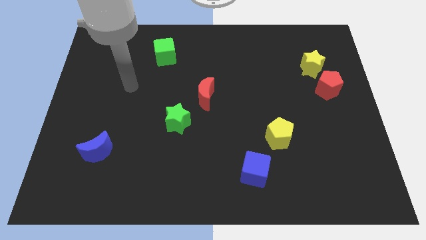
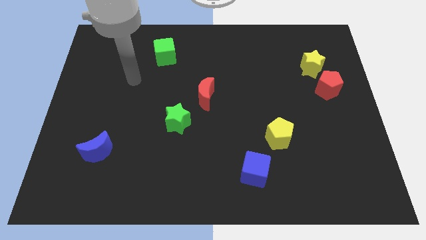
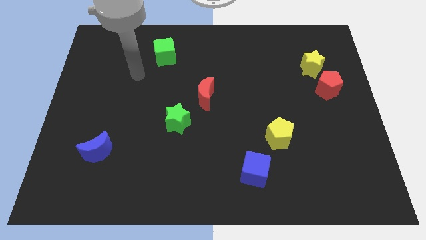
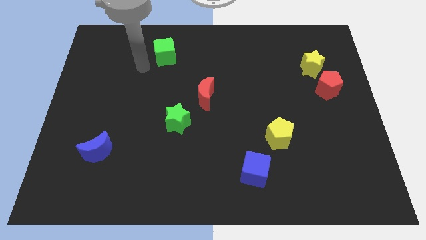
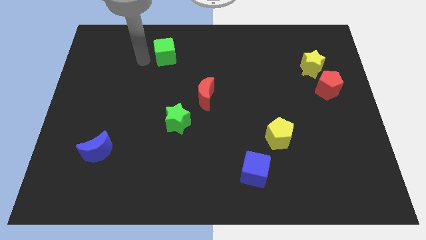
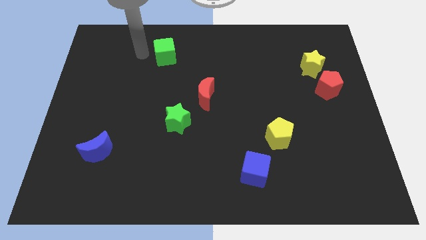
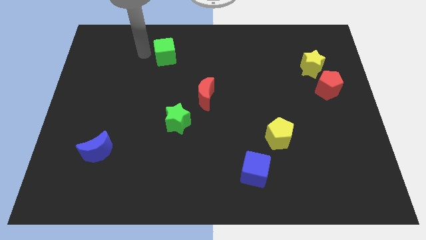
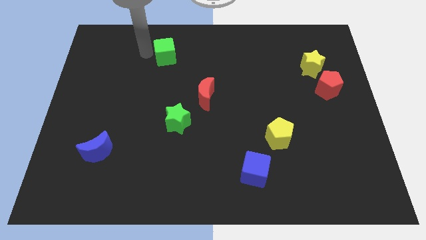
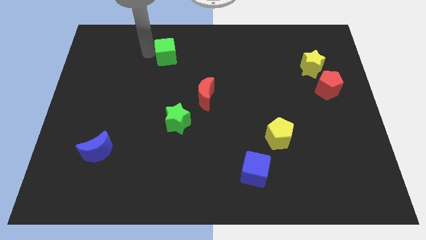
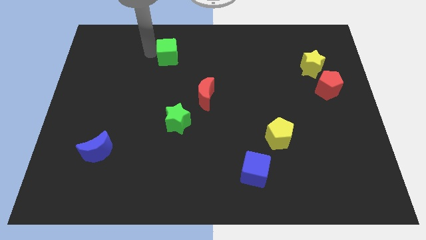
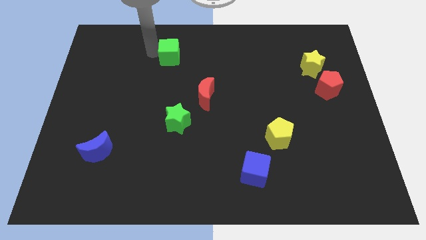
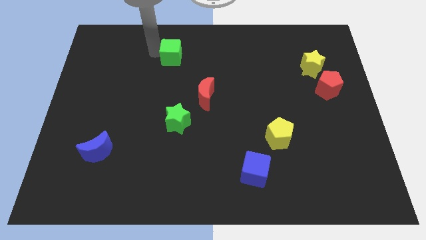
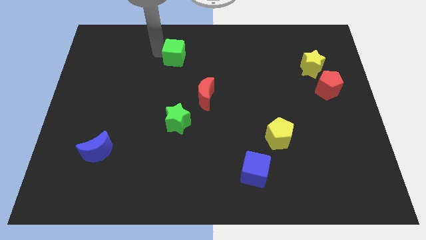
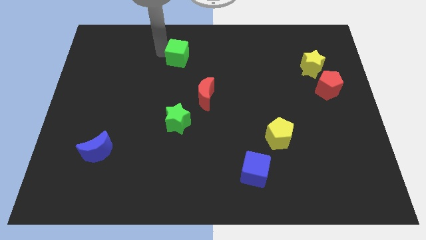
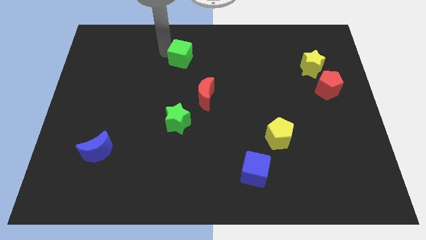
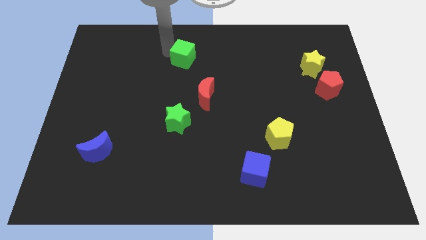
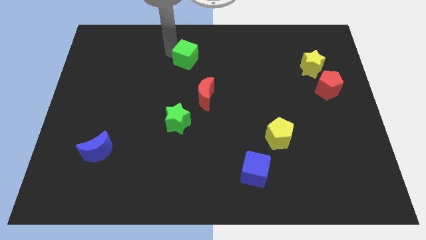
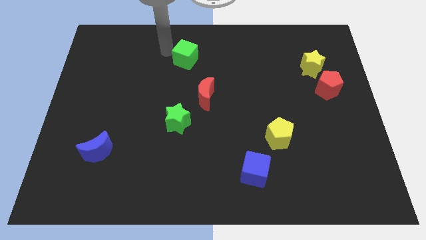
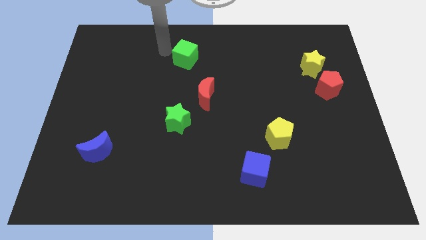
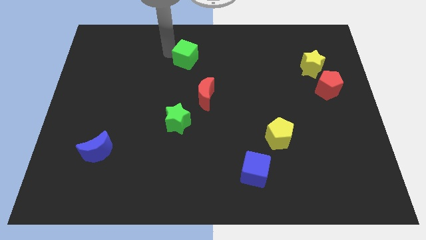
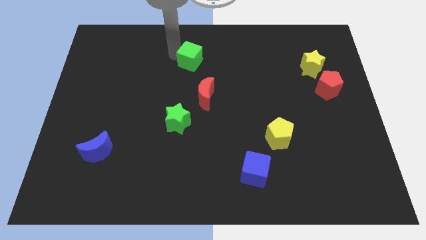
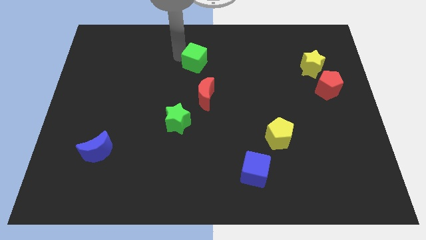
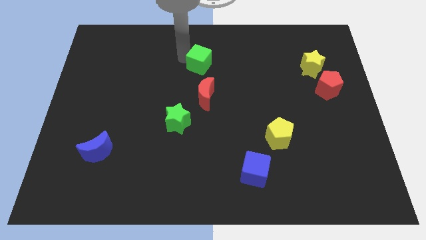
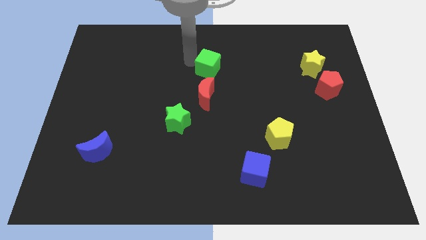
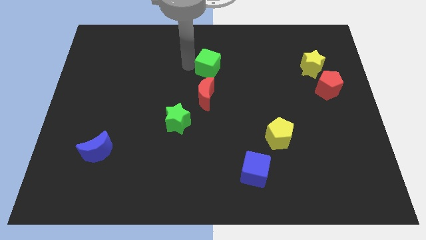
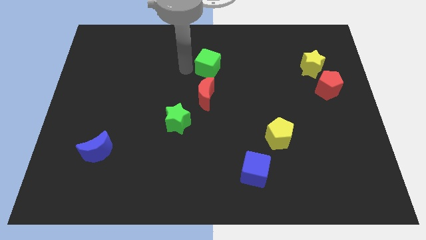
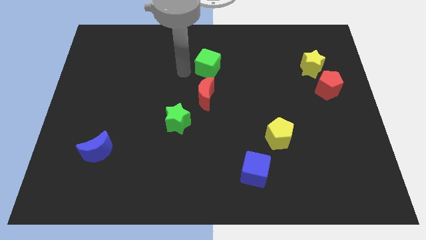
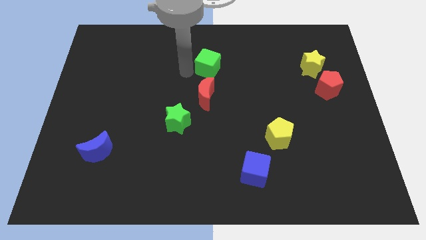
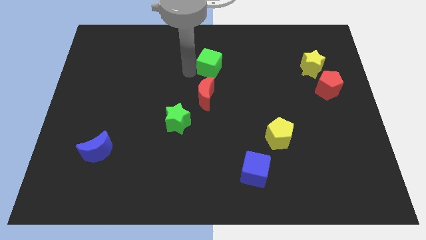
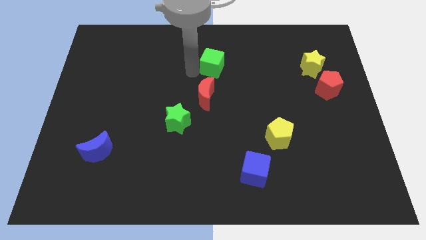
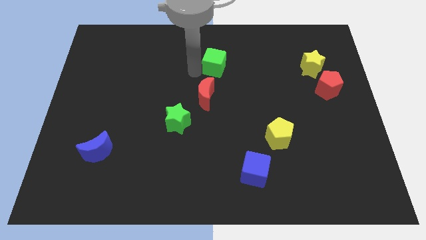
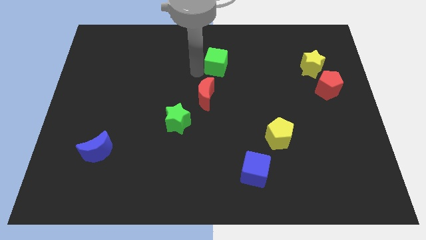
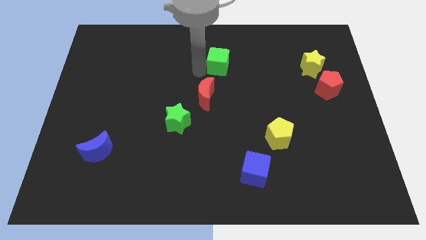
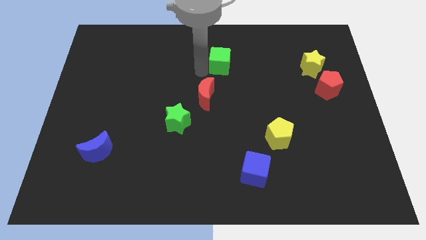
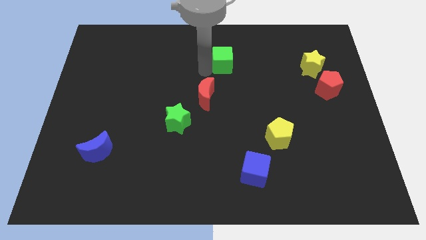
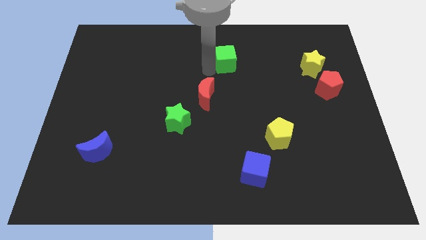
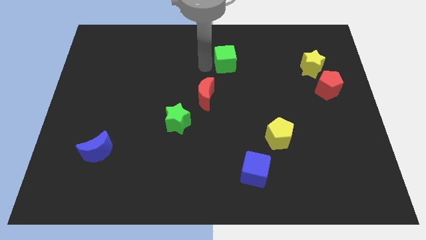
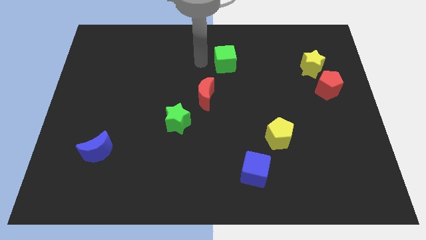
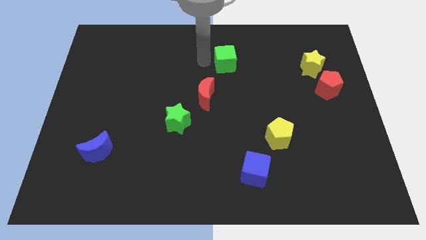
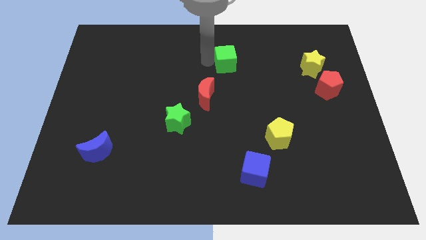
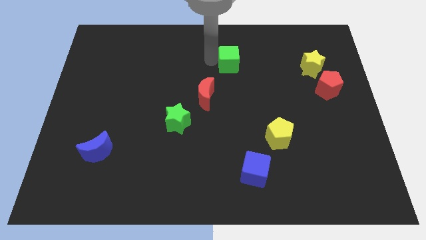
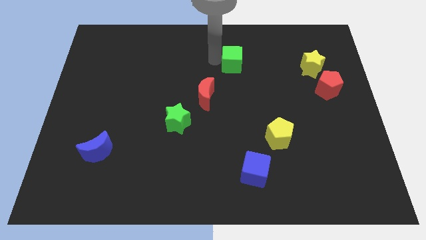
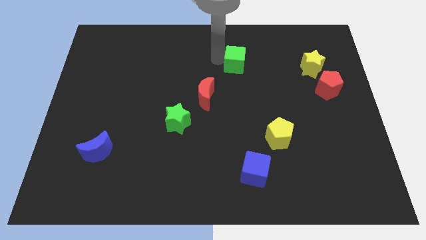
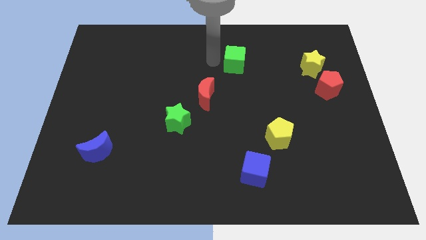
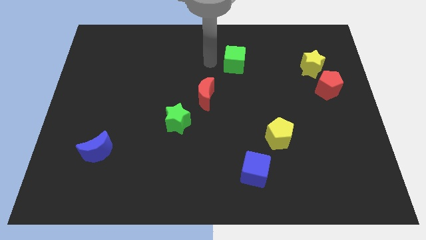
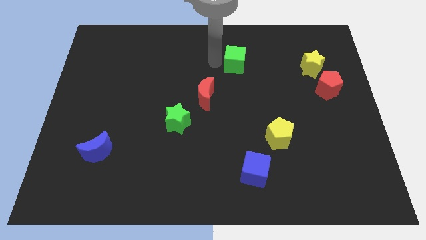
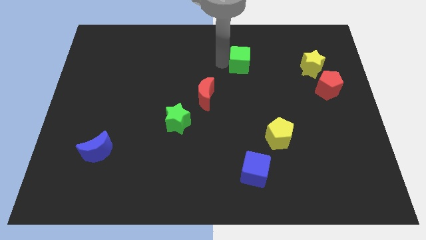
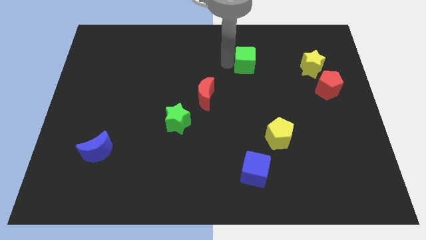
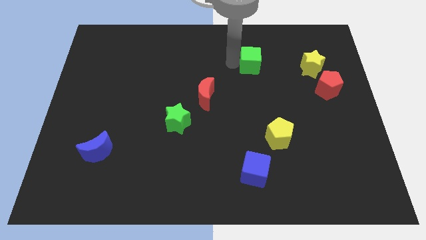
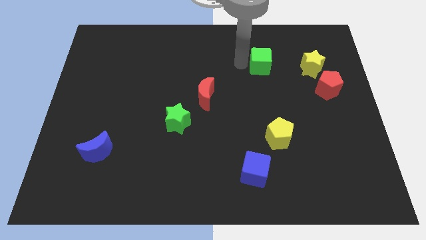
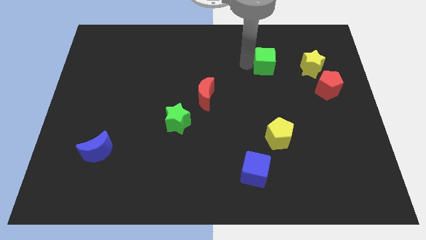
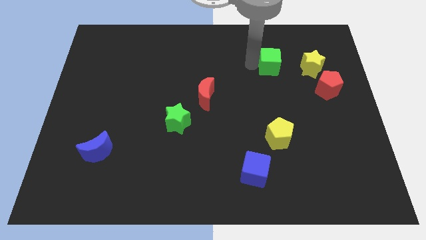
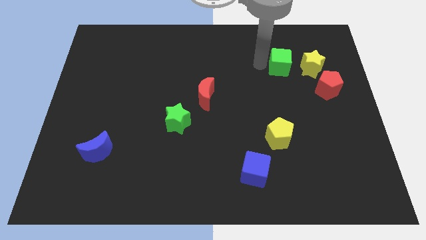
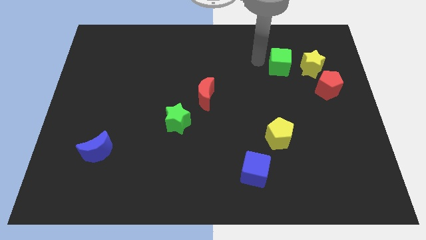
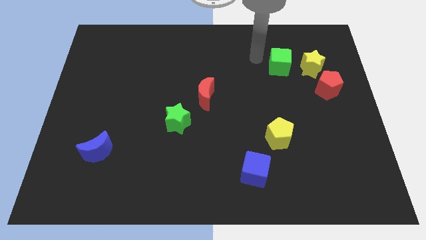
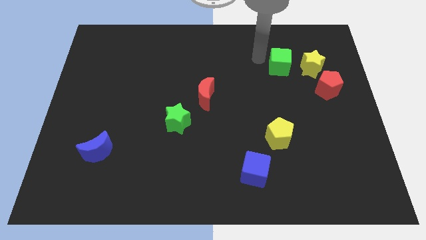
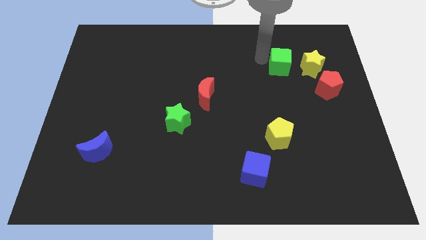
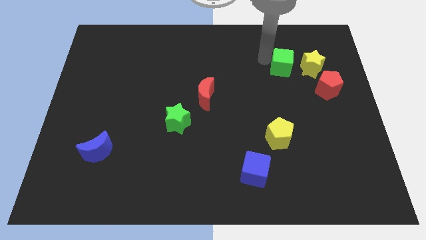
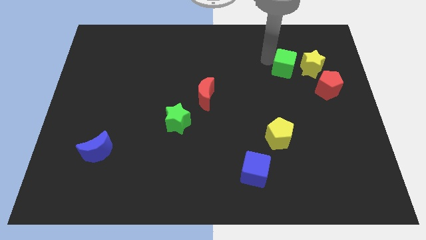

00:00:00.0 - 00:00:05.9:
put the green cube diagonally up and to the left of the red pentagon
